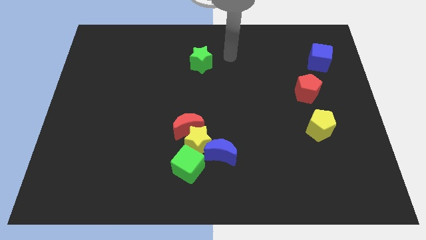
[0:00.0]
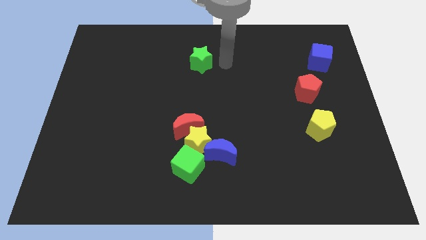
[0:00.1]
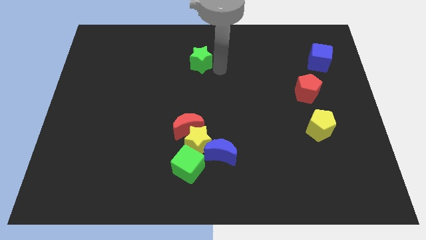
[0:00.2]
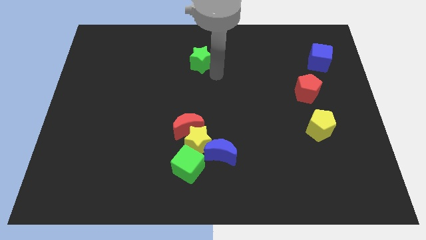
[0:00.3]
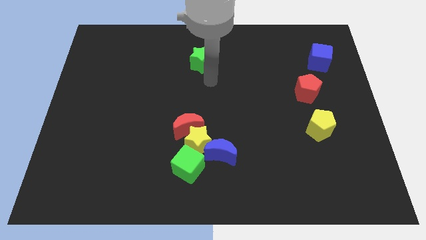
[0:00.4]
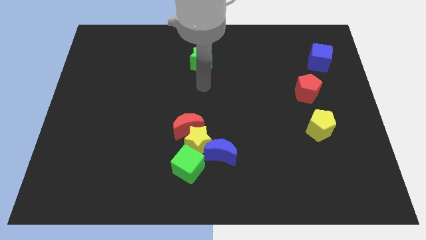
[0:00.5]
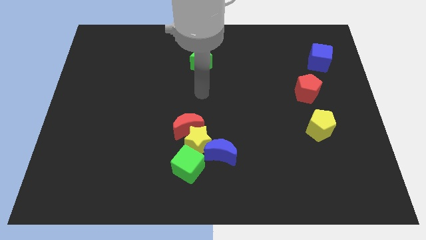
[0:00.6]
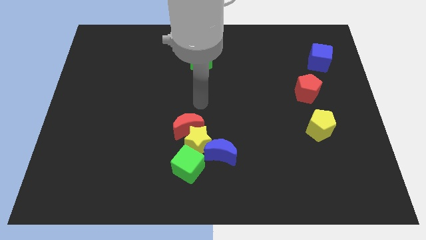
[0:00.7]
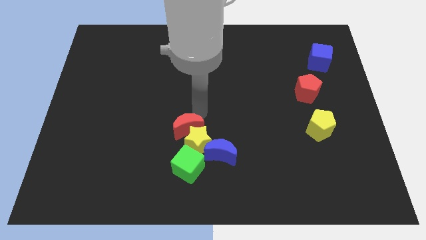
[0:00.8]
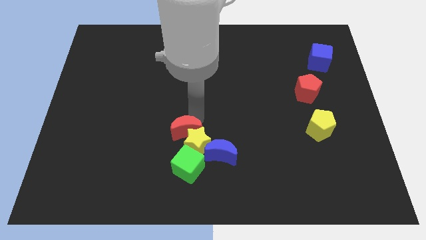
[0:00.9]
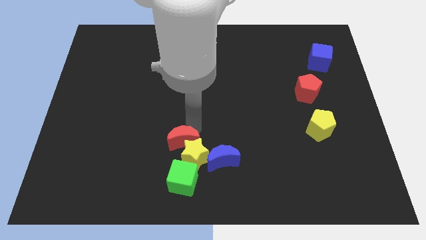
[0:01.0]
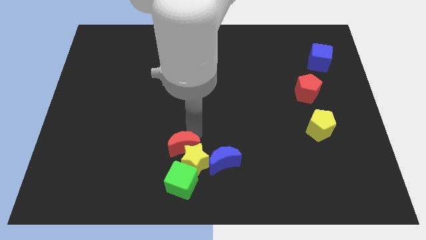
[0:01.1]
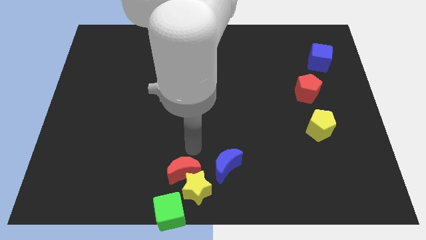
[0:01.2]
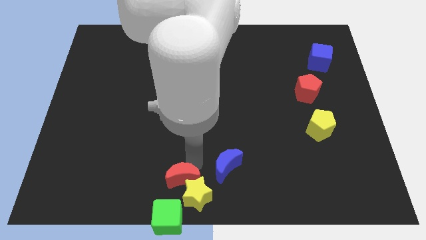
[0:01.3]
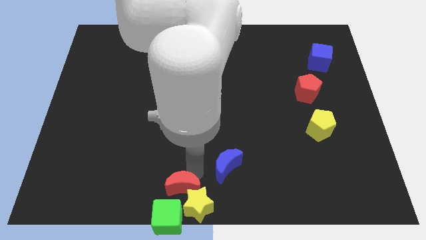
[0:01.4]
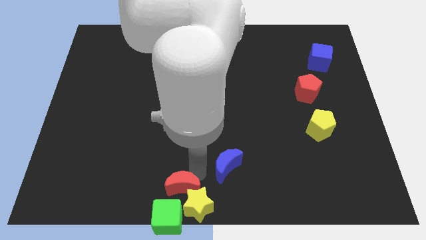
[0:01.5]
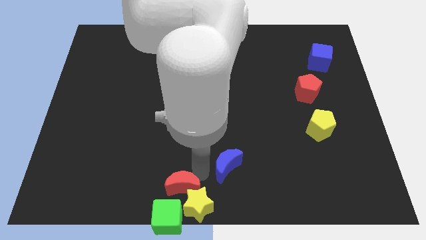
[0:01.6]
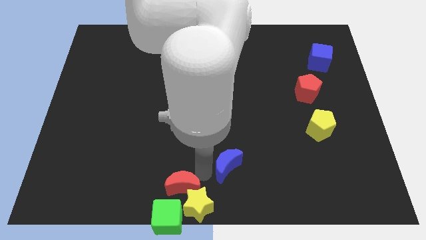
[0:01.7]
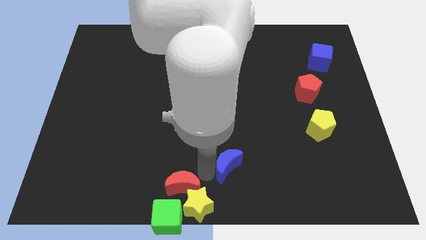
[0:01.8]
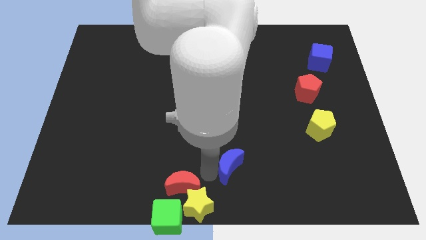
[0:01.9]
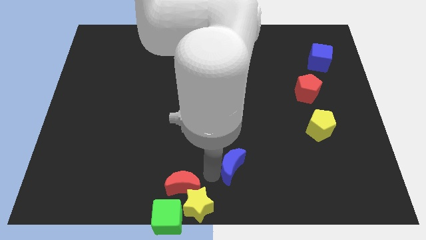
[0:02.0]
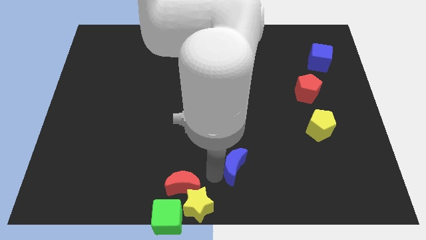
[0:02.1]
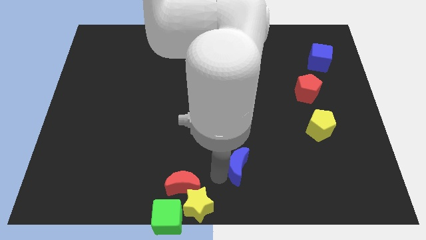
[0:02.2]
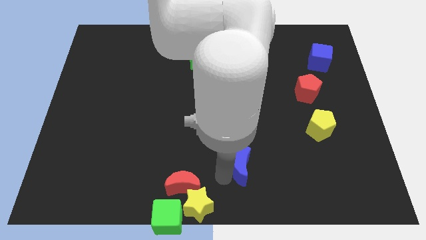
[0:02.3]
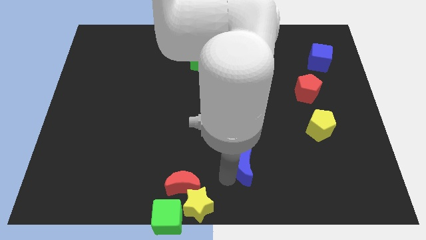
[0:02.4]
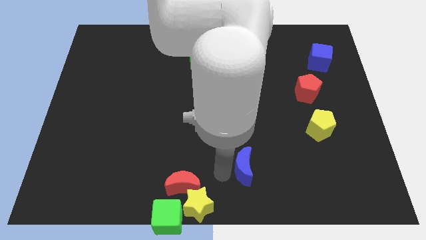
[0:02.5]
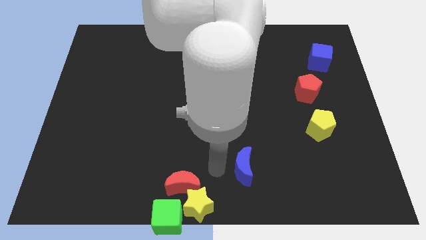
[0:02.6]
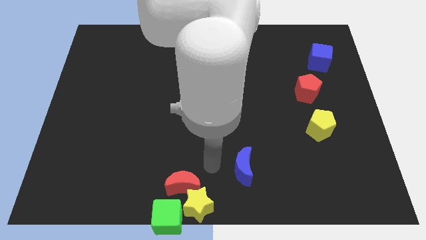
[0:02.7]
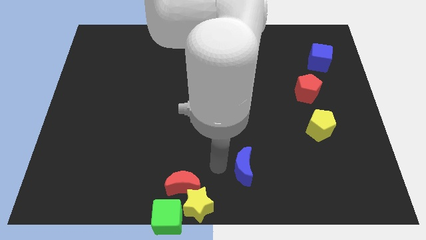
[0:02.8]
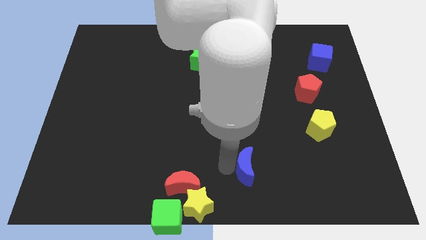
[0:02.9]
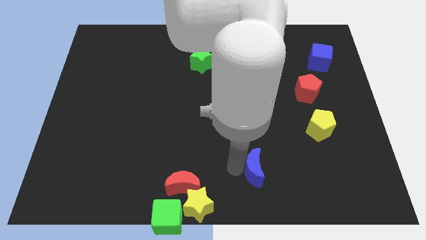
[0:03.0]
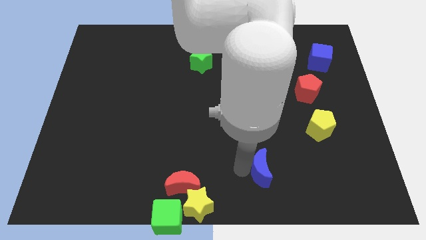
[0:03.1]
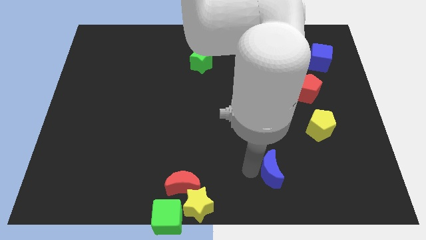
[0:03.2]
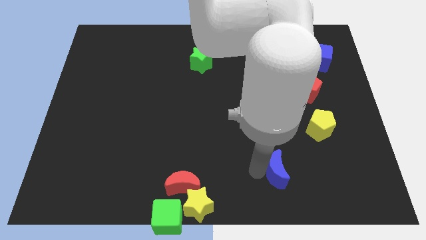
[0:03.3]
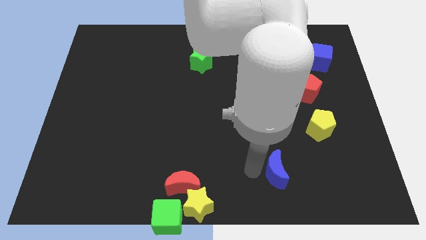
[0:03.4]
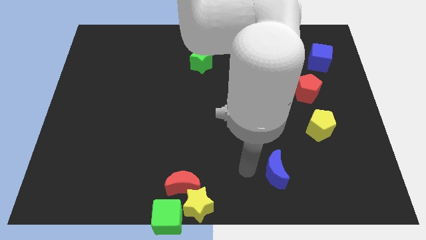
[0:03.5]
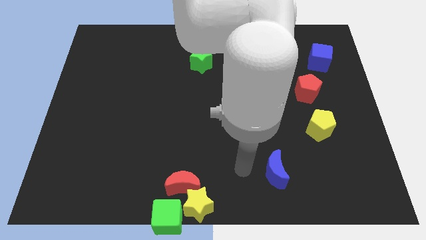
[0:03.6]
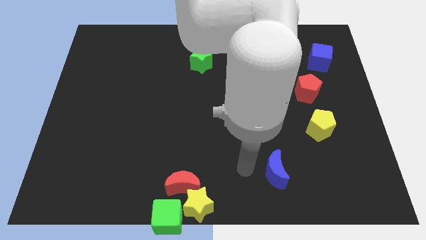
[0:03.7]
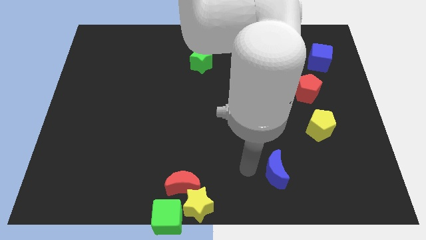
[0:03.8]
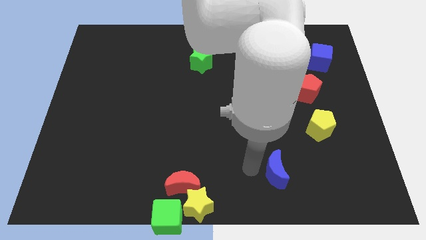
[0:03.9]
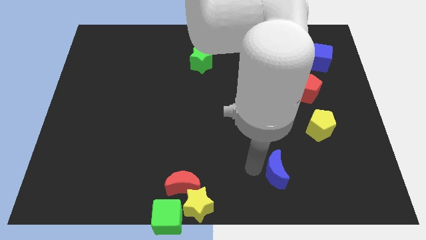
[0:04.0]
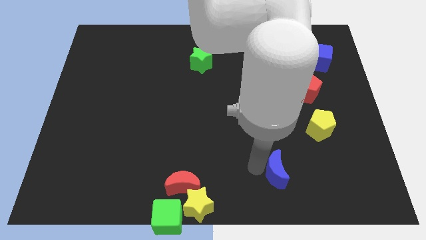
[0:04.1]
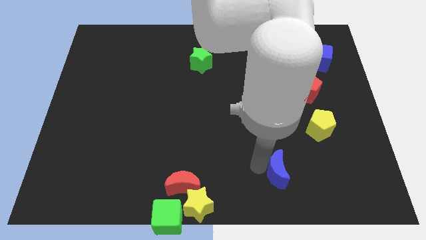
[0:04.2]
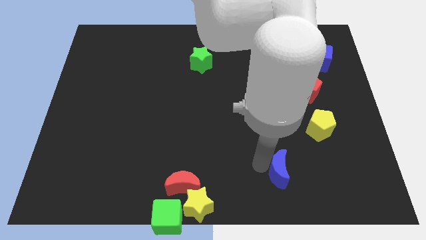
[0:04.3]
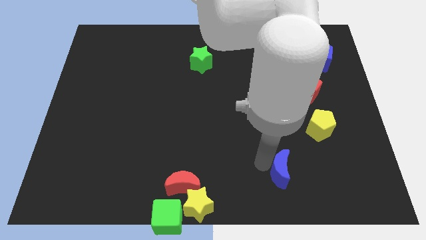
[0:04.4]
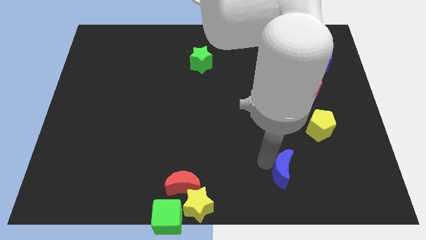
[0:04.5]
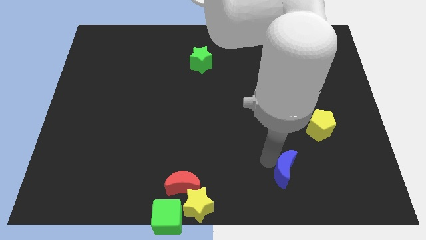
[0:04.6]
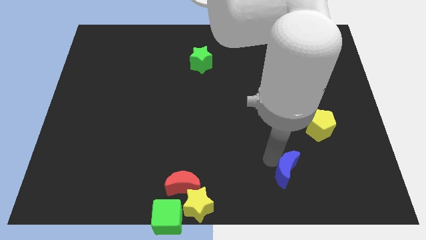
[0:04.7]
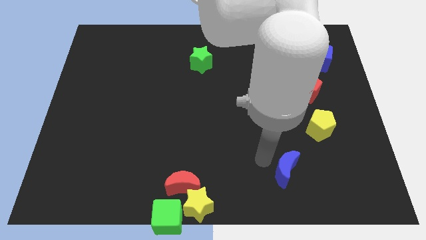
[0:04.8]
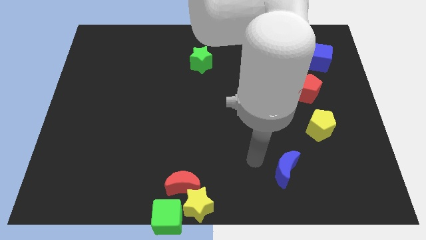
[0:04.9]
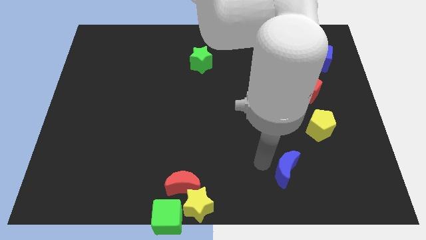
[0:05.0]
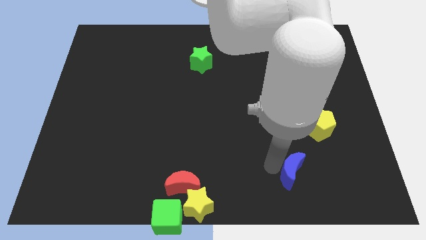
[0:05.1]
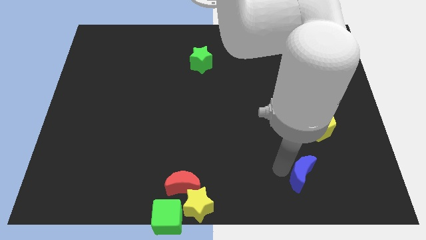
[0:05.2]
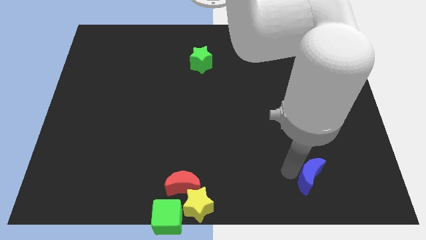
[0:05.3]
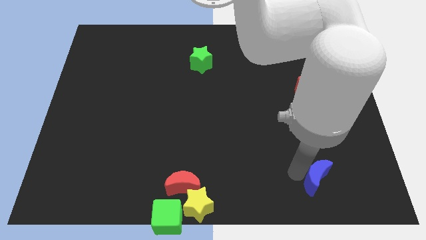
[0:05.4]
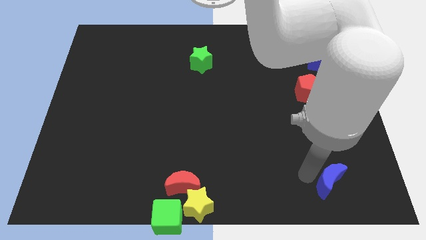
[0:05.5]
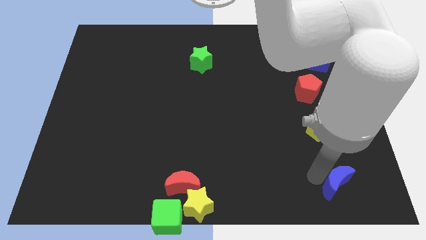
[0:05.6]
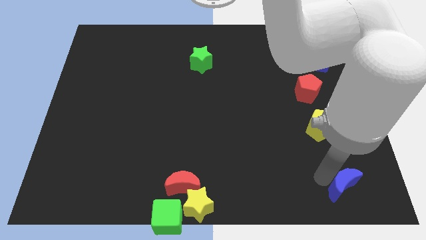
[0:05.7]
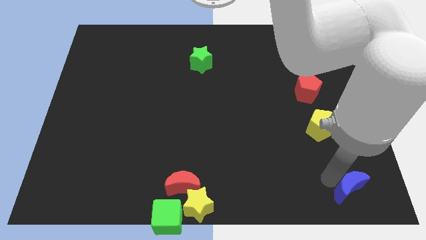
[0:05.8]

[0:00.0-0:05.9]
push the blue moon to the lower right corner

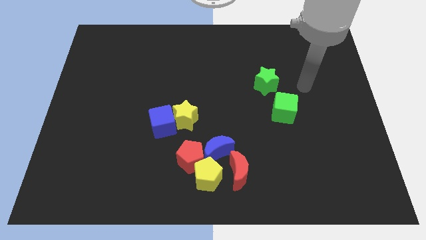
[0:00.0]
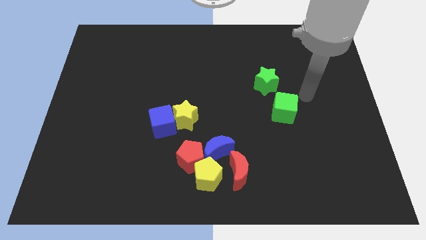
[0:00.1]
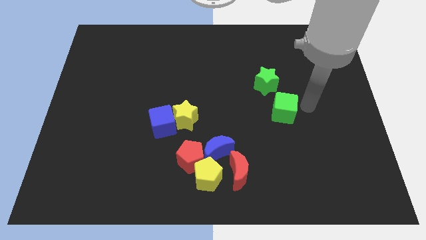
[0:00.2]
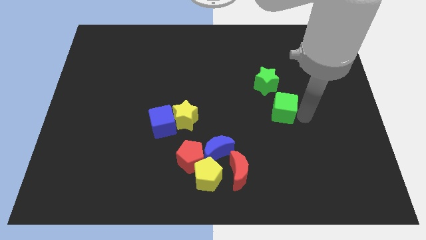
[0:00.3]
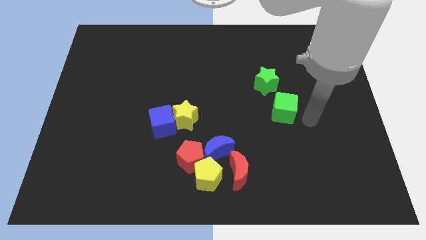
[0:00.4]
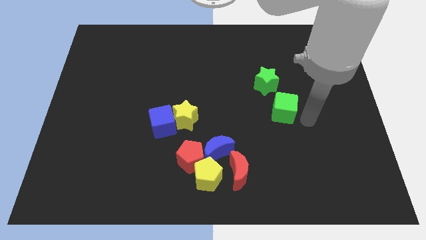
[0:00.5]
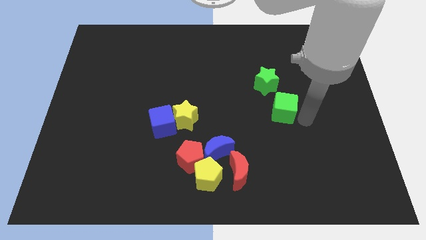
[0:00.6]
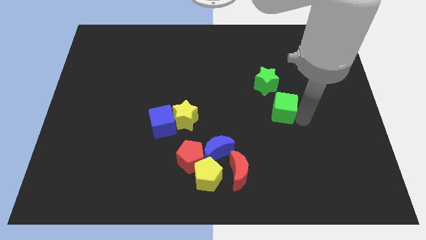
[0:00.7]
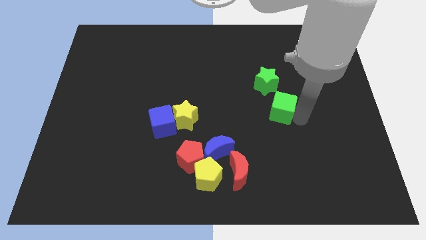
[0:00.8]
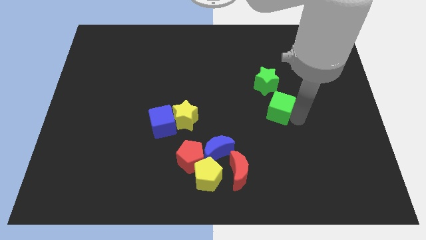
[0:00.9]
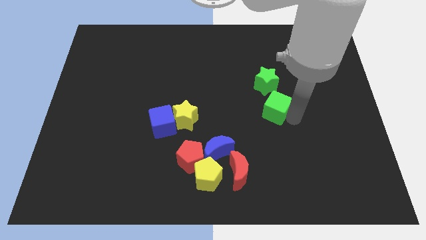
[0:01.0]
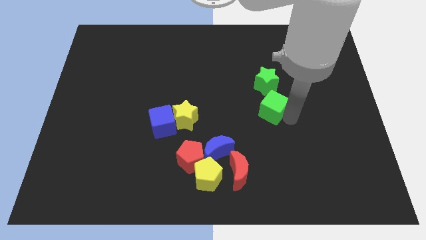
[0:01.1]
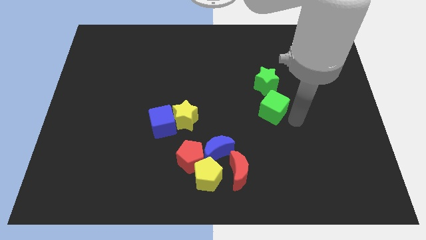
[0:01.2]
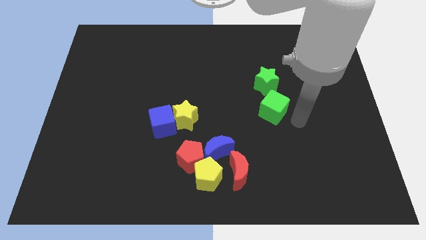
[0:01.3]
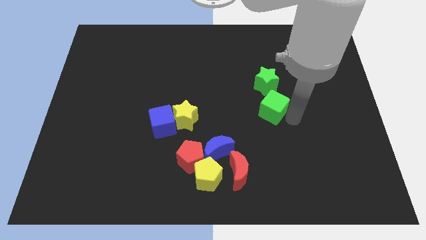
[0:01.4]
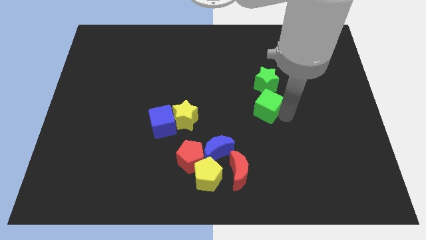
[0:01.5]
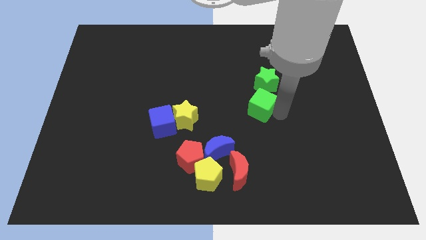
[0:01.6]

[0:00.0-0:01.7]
move the green cube to the middle of the board
